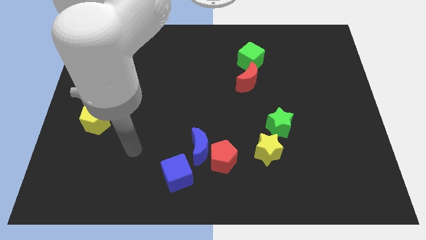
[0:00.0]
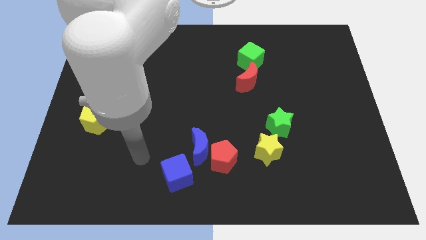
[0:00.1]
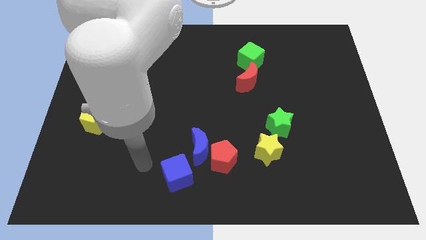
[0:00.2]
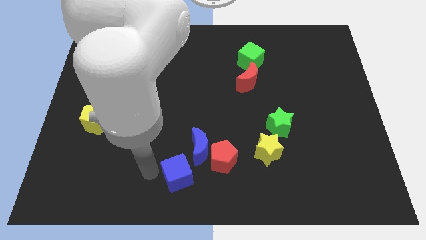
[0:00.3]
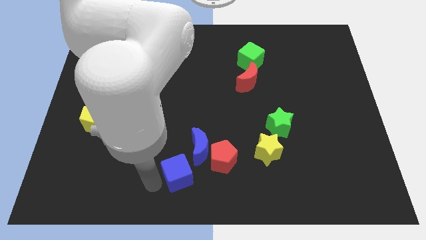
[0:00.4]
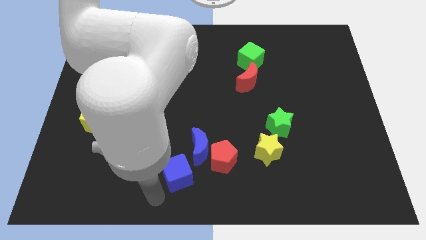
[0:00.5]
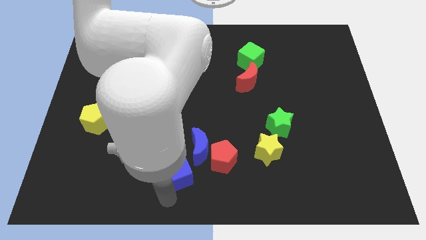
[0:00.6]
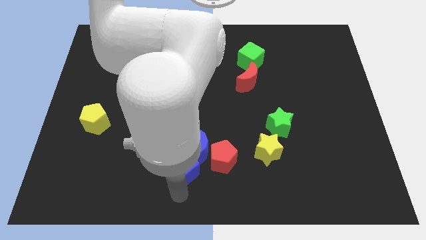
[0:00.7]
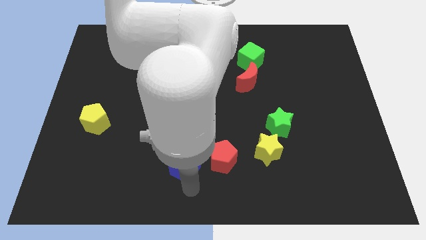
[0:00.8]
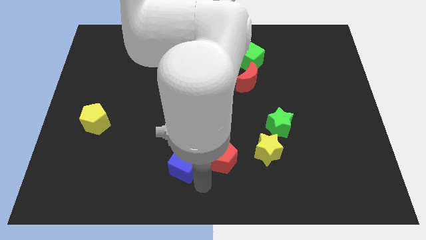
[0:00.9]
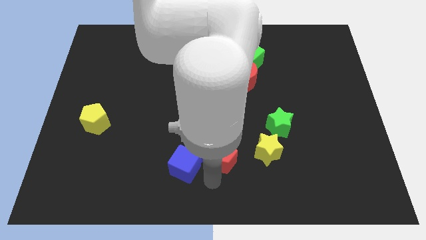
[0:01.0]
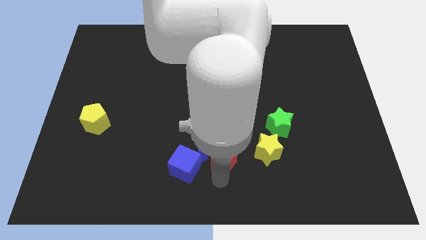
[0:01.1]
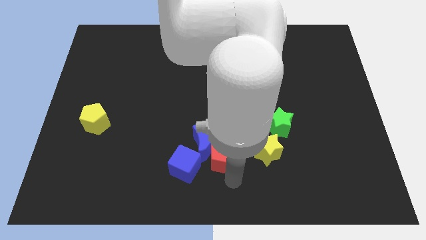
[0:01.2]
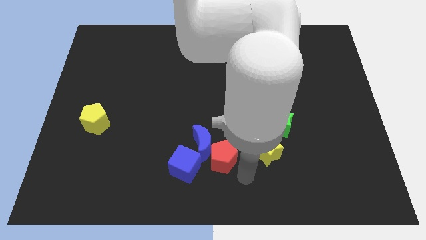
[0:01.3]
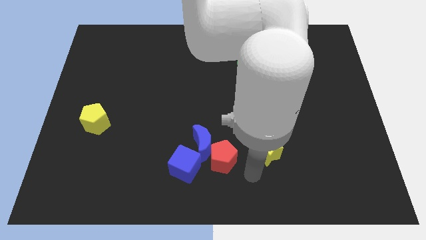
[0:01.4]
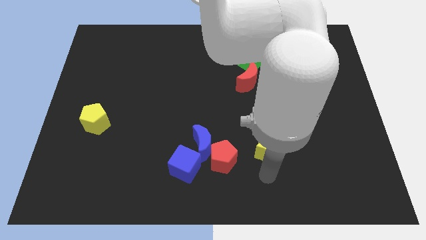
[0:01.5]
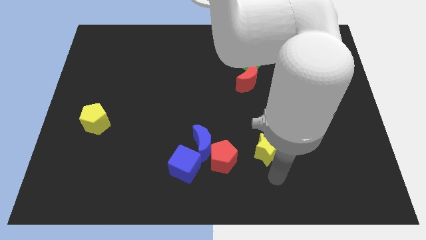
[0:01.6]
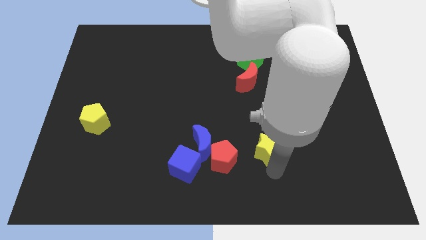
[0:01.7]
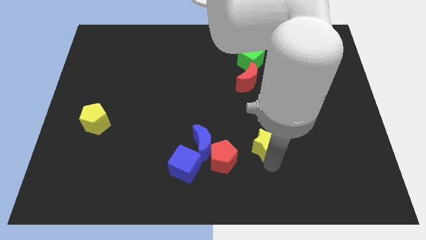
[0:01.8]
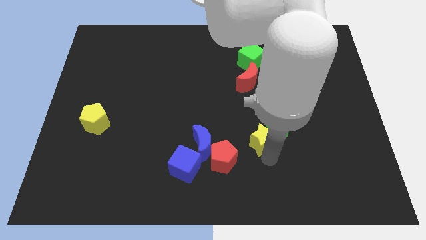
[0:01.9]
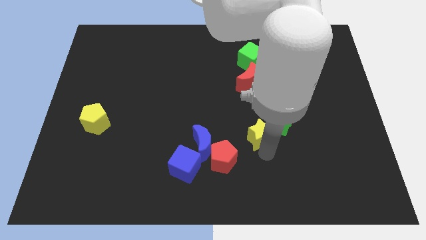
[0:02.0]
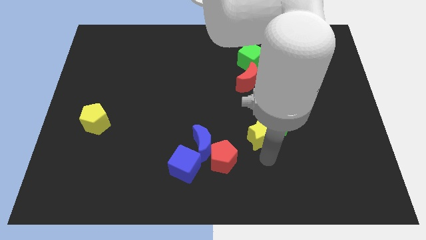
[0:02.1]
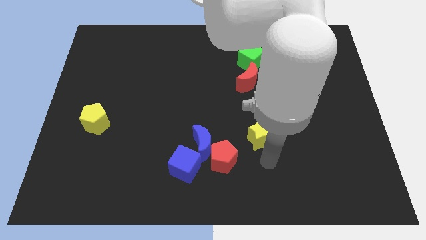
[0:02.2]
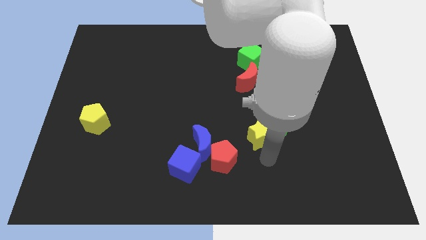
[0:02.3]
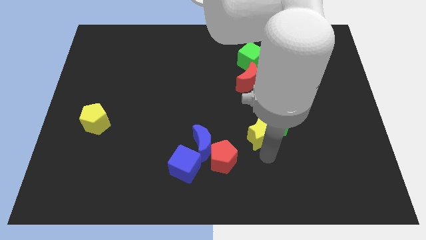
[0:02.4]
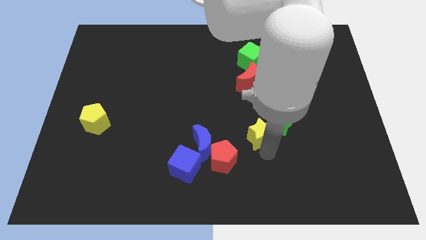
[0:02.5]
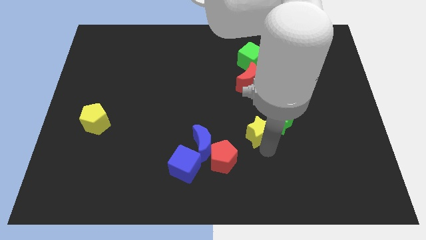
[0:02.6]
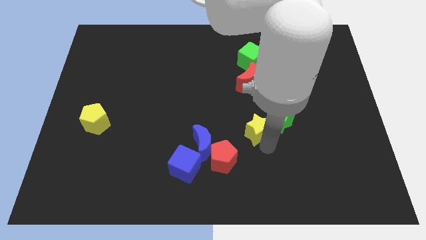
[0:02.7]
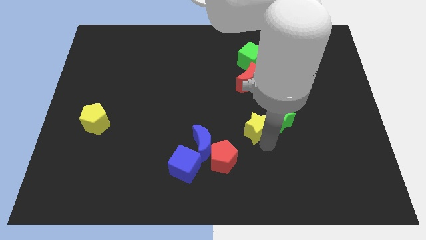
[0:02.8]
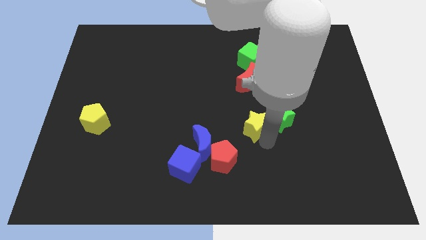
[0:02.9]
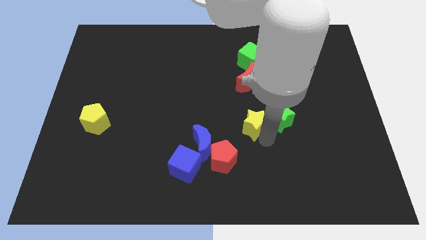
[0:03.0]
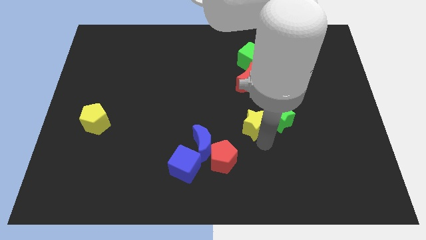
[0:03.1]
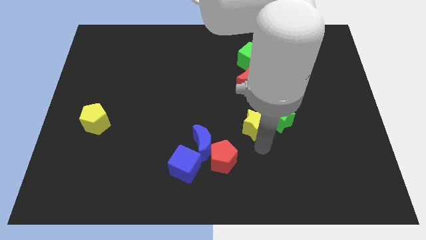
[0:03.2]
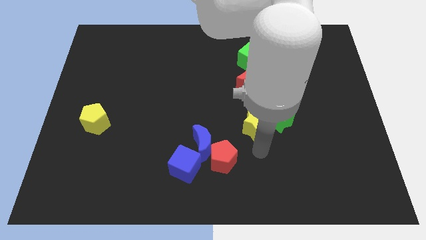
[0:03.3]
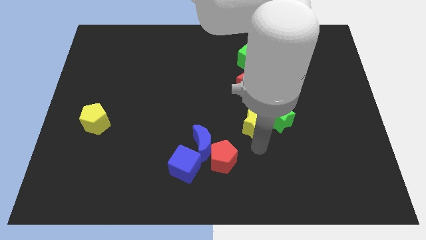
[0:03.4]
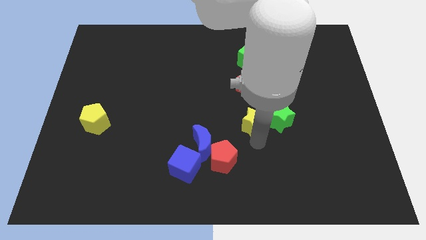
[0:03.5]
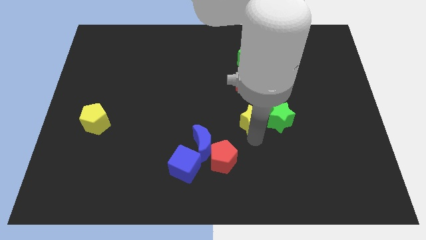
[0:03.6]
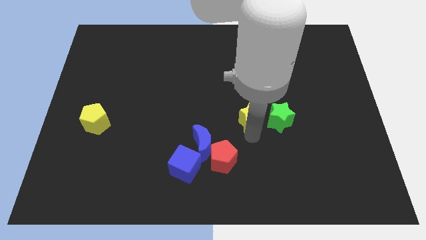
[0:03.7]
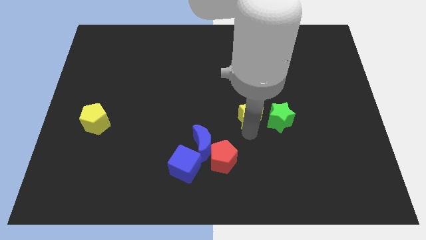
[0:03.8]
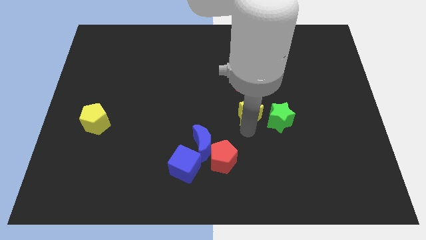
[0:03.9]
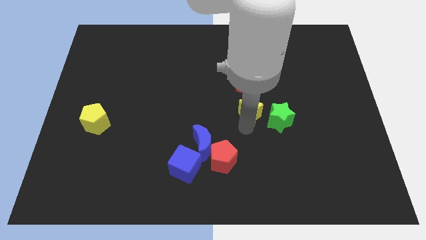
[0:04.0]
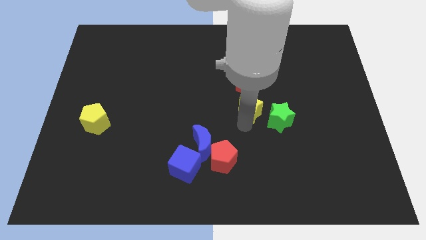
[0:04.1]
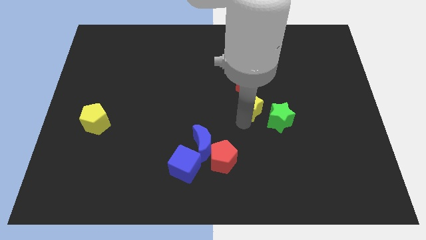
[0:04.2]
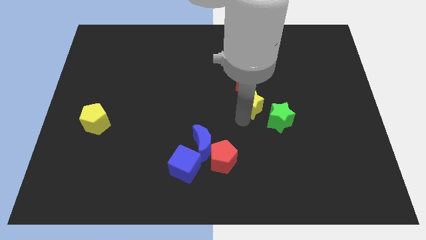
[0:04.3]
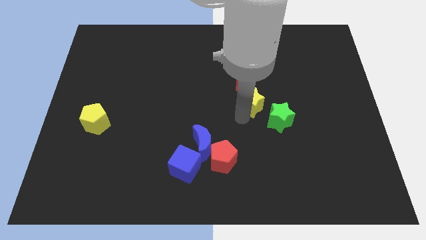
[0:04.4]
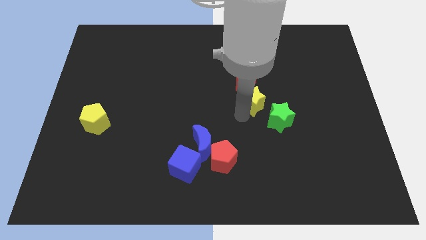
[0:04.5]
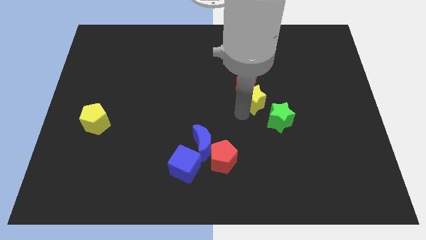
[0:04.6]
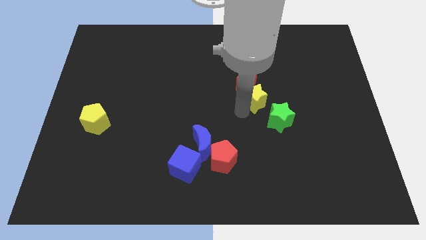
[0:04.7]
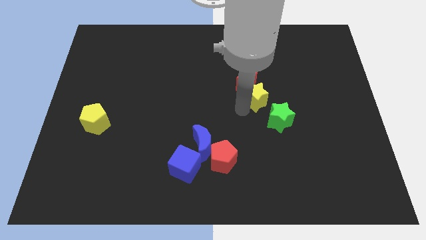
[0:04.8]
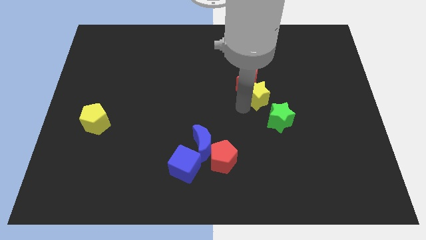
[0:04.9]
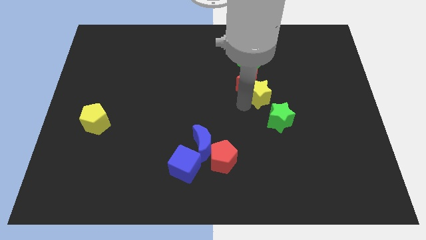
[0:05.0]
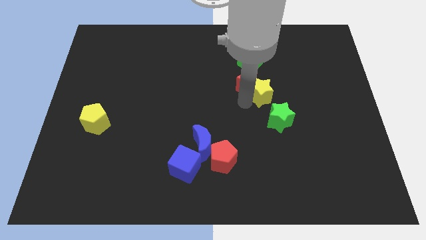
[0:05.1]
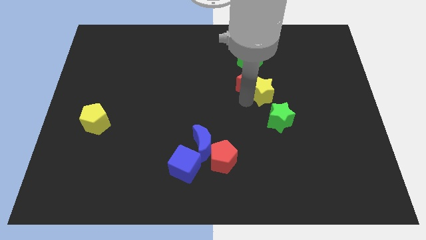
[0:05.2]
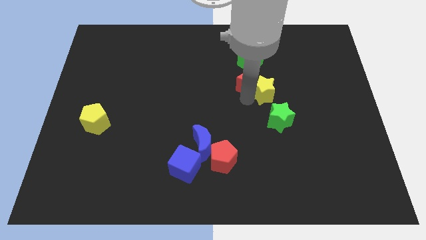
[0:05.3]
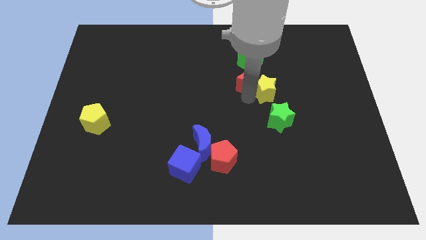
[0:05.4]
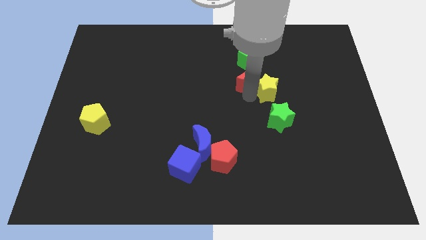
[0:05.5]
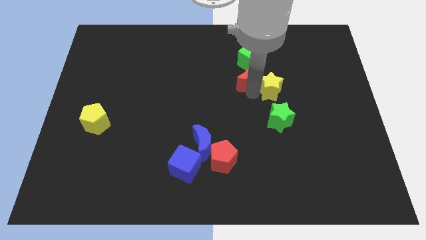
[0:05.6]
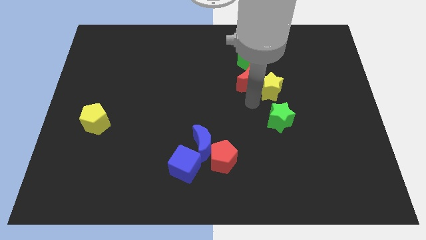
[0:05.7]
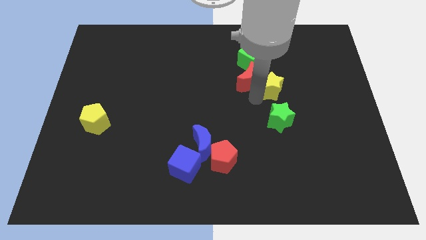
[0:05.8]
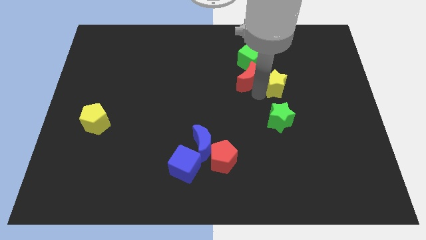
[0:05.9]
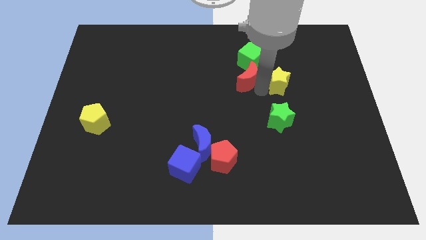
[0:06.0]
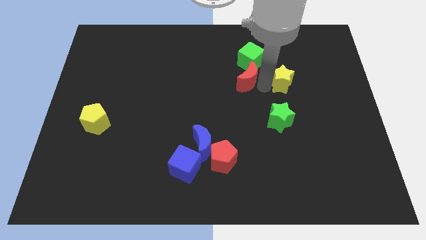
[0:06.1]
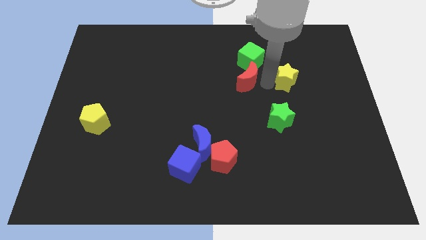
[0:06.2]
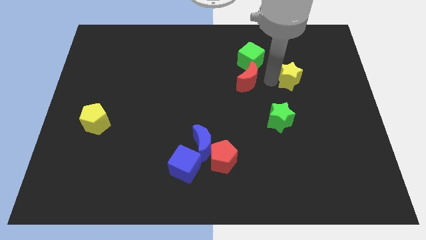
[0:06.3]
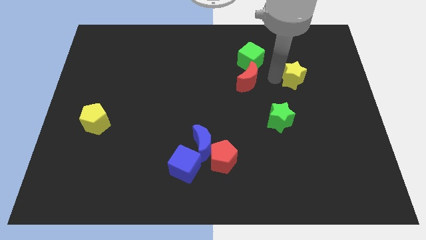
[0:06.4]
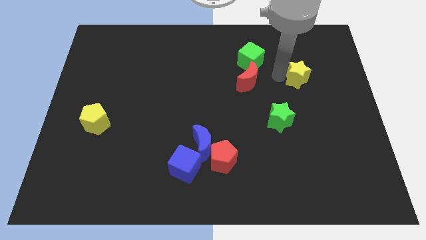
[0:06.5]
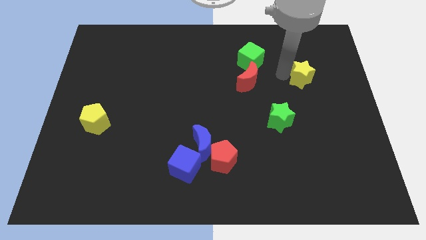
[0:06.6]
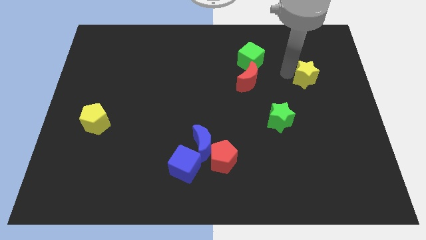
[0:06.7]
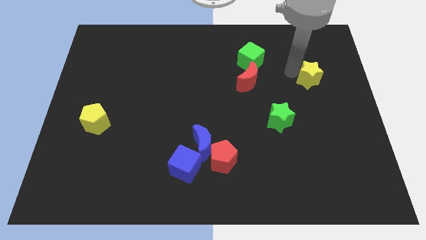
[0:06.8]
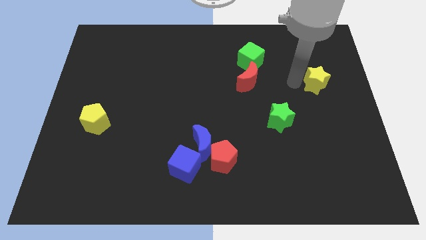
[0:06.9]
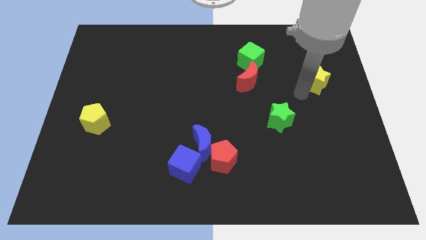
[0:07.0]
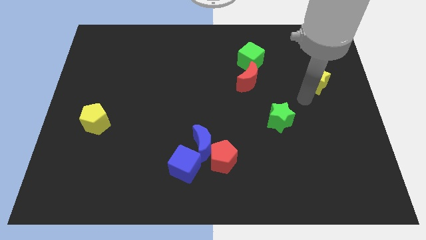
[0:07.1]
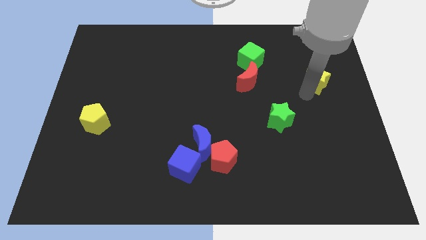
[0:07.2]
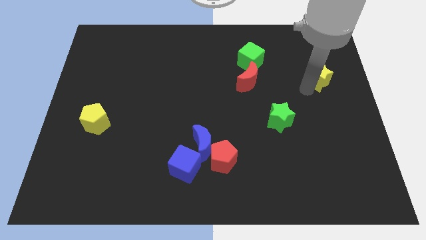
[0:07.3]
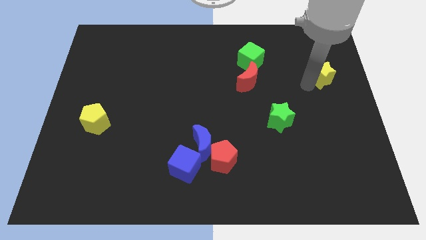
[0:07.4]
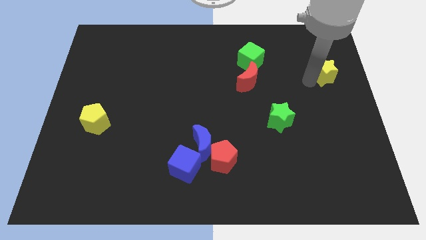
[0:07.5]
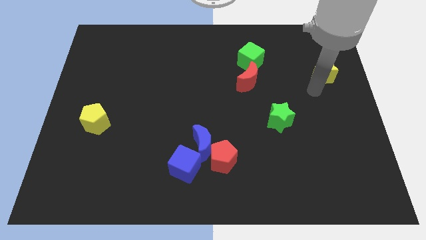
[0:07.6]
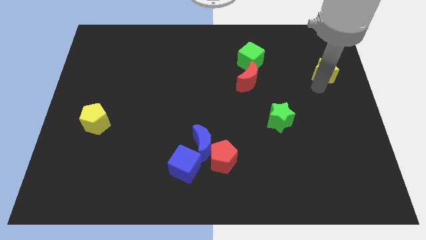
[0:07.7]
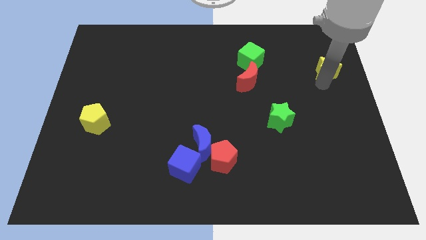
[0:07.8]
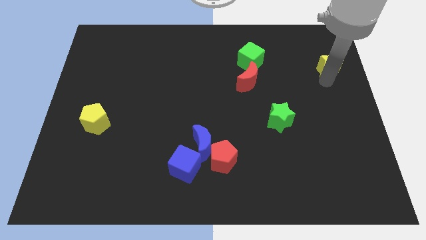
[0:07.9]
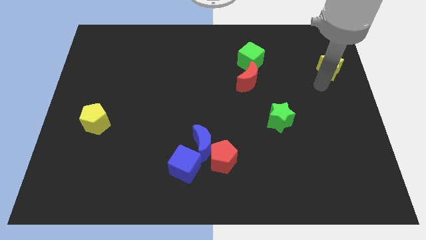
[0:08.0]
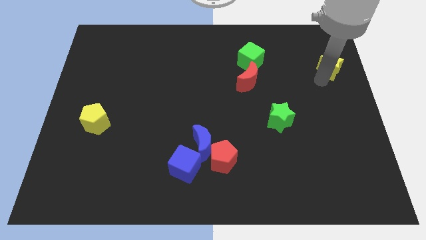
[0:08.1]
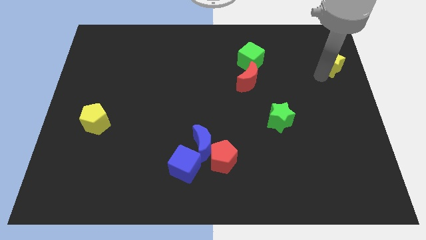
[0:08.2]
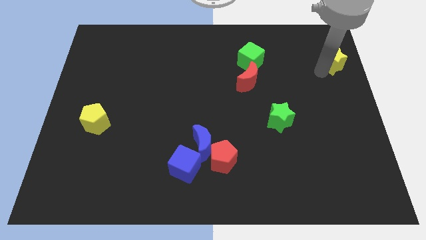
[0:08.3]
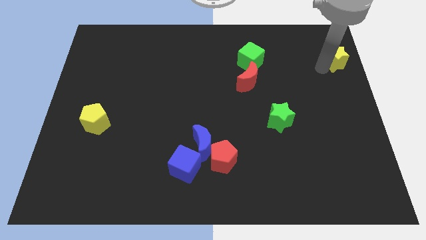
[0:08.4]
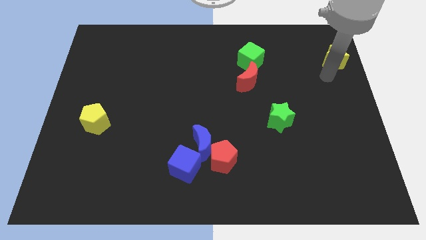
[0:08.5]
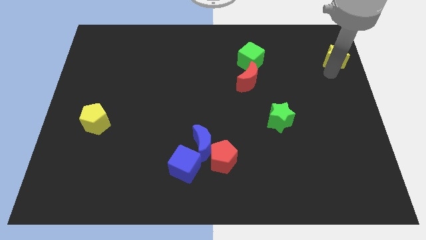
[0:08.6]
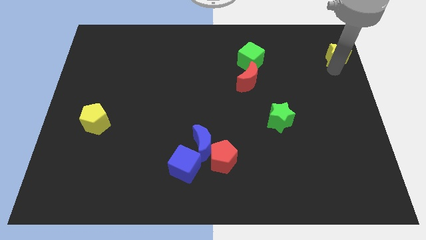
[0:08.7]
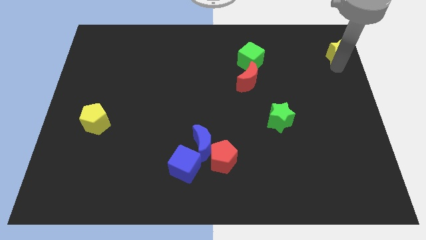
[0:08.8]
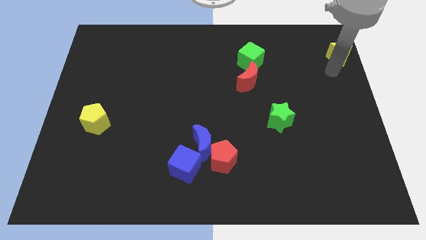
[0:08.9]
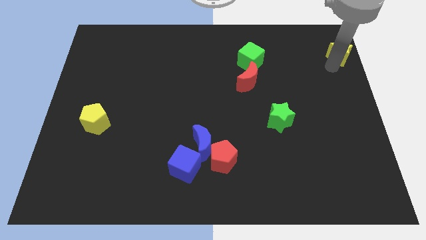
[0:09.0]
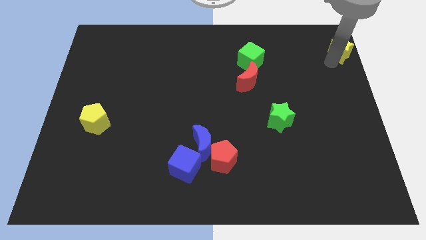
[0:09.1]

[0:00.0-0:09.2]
put the yellow star to the top right
